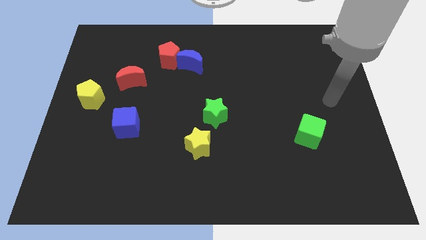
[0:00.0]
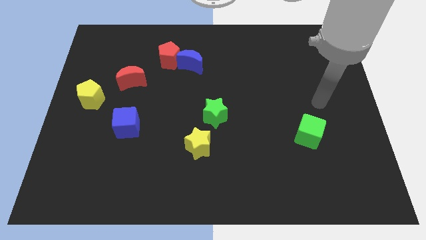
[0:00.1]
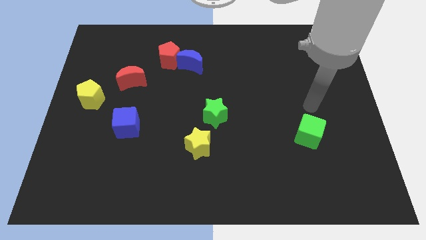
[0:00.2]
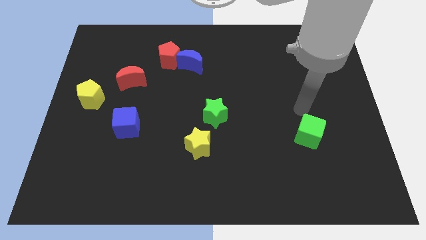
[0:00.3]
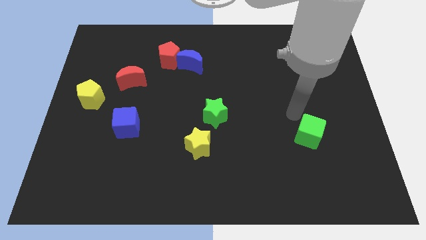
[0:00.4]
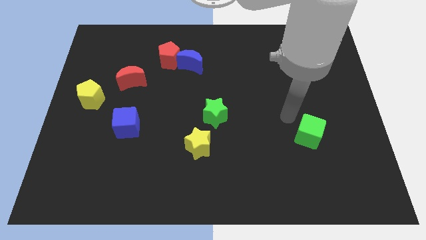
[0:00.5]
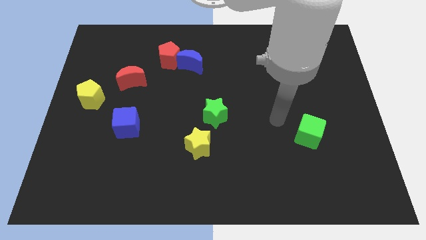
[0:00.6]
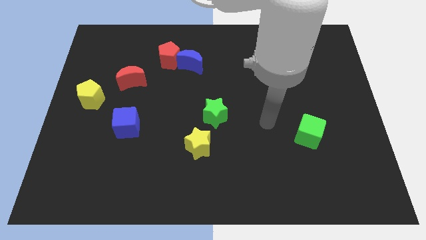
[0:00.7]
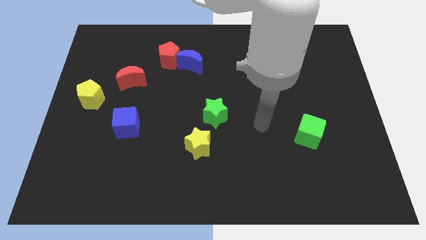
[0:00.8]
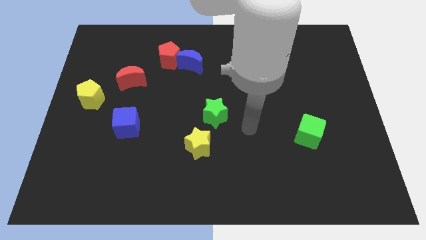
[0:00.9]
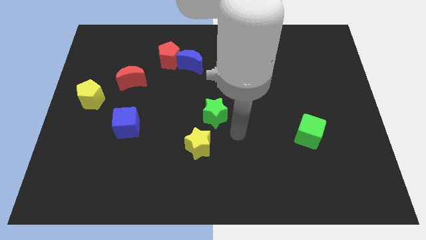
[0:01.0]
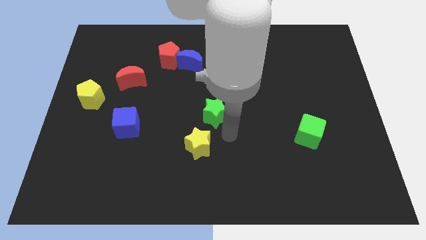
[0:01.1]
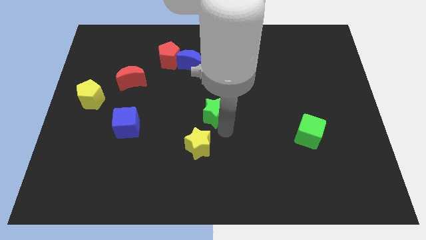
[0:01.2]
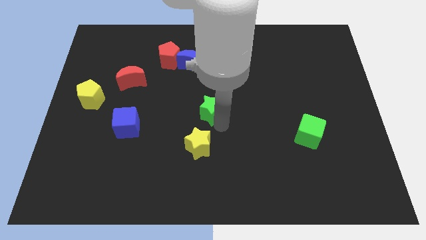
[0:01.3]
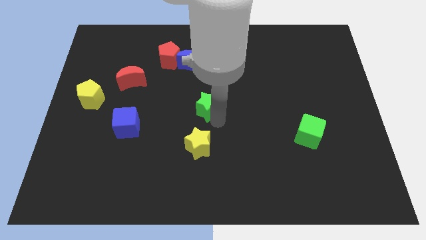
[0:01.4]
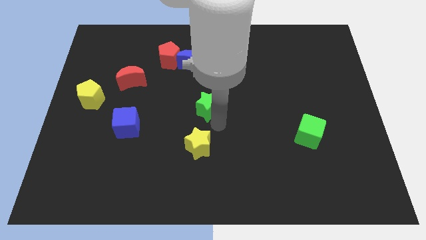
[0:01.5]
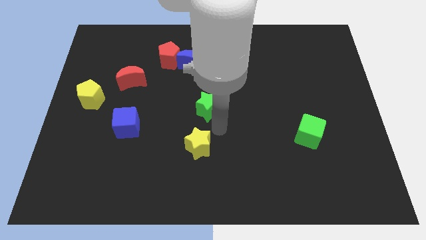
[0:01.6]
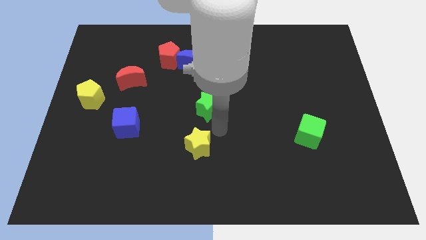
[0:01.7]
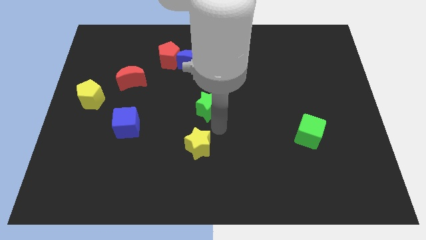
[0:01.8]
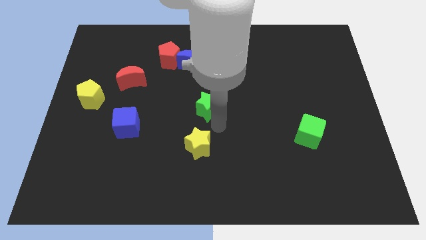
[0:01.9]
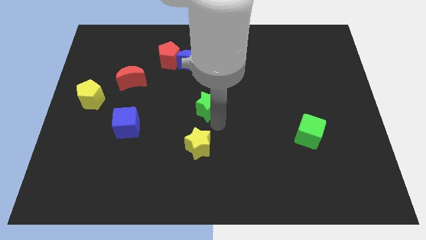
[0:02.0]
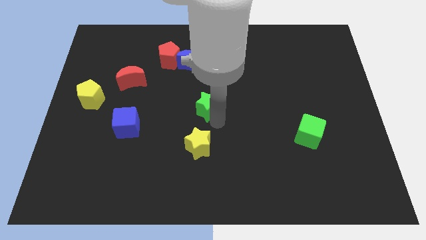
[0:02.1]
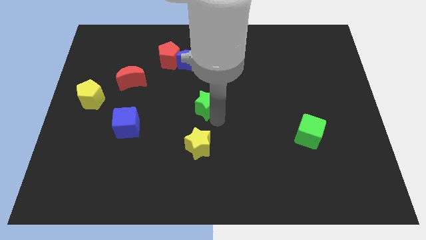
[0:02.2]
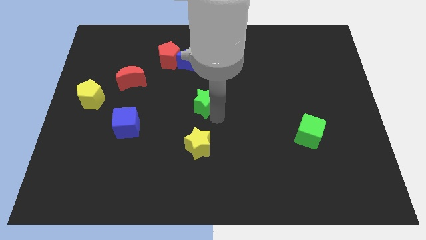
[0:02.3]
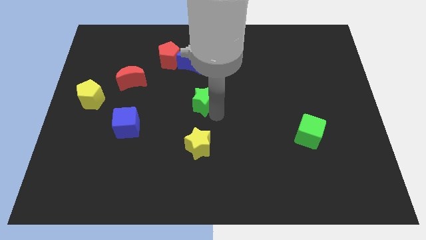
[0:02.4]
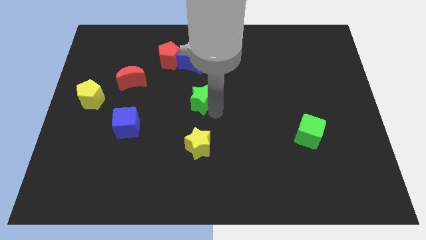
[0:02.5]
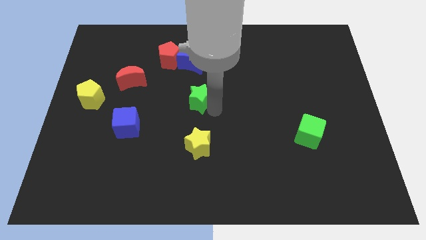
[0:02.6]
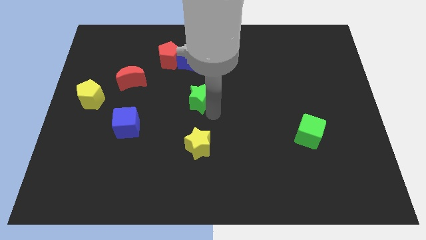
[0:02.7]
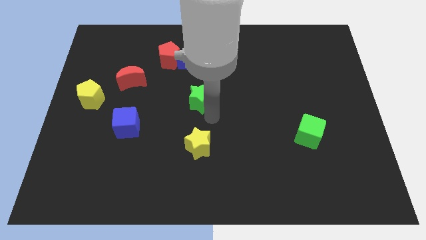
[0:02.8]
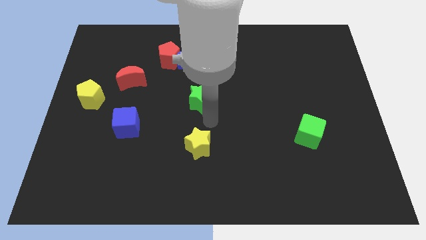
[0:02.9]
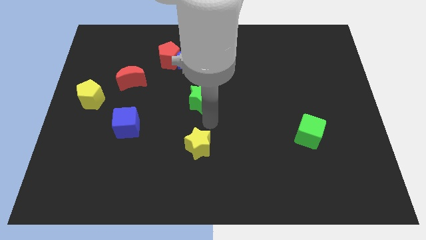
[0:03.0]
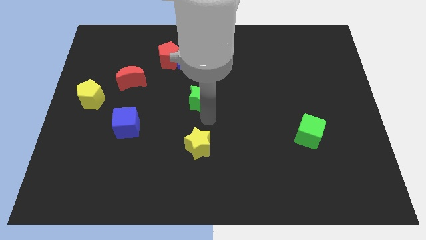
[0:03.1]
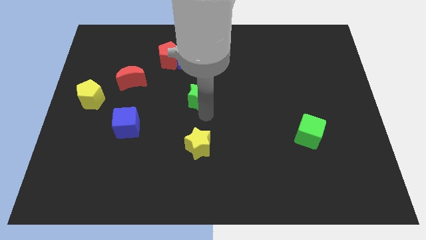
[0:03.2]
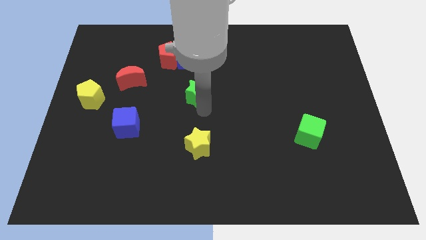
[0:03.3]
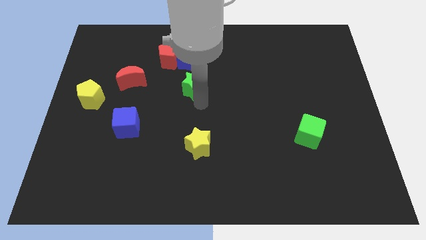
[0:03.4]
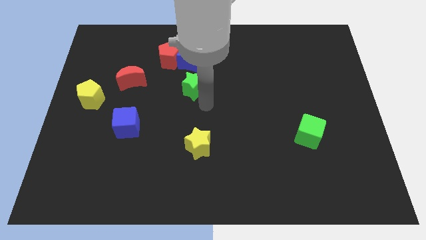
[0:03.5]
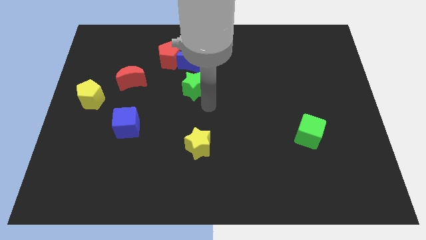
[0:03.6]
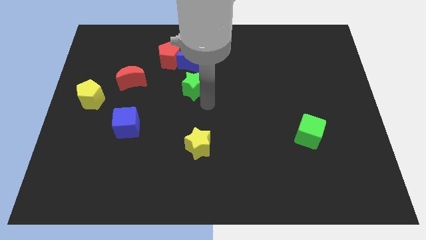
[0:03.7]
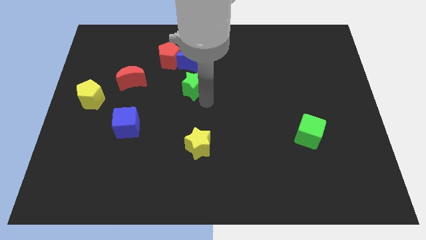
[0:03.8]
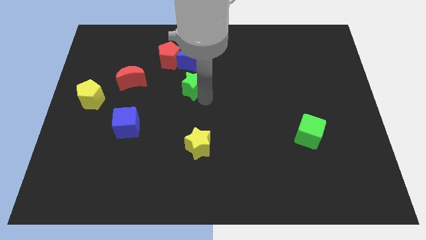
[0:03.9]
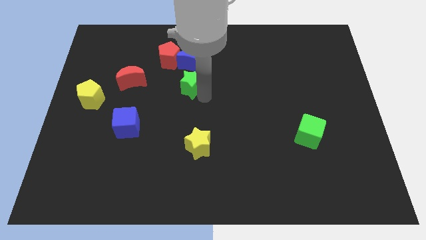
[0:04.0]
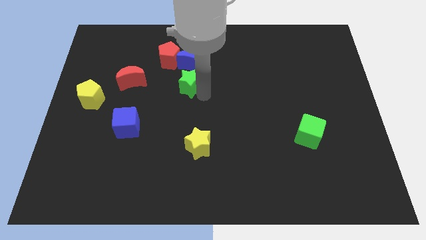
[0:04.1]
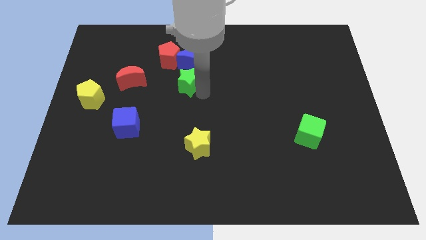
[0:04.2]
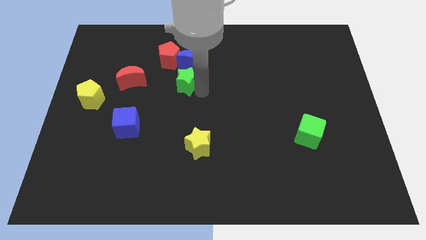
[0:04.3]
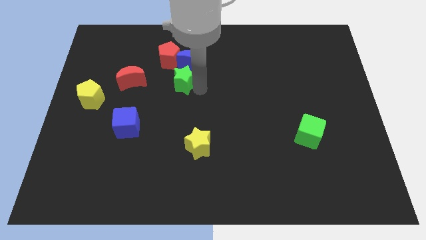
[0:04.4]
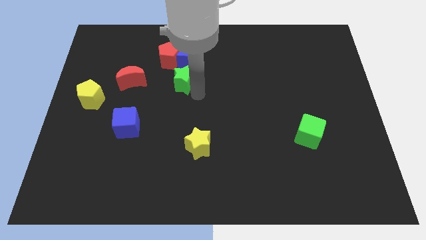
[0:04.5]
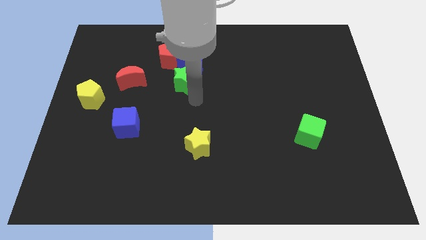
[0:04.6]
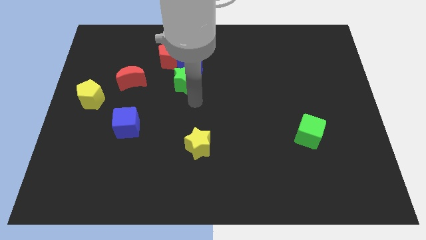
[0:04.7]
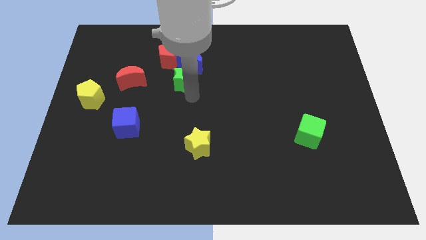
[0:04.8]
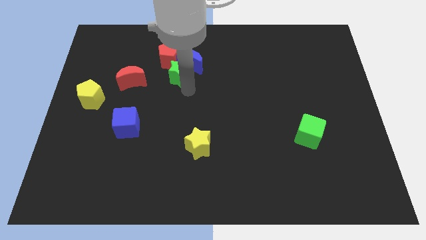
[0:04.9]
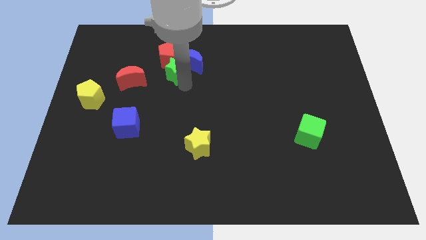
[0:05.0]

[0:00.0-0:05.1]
move the green star towards the red pentagon

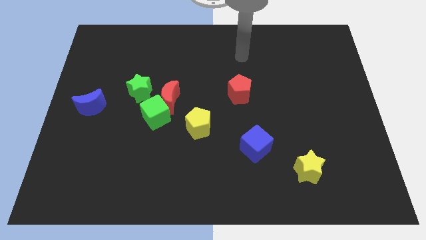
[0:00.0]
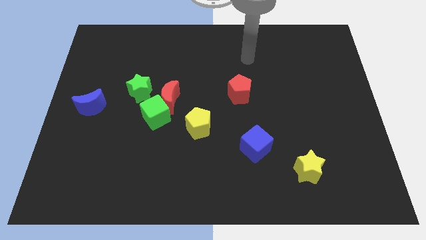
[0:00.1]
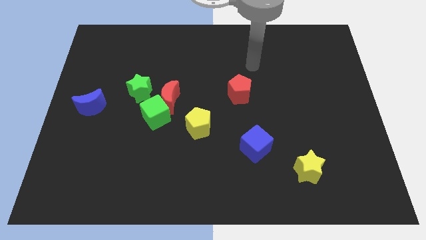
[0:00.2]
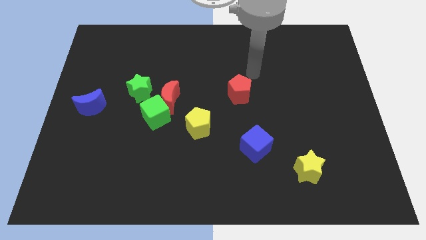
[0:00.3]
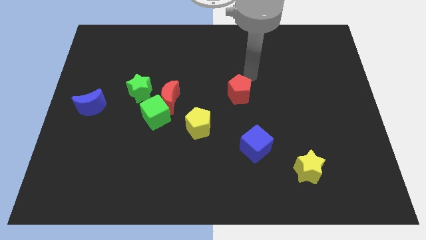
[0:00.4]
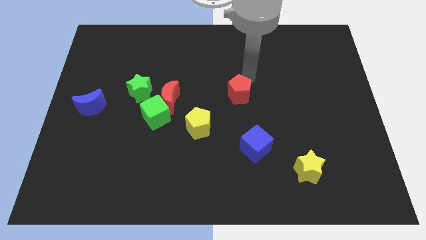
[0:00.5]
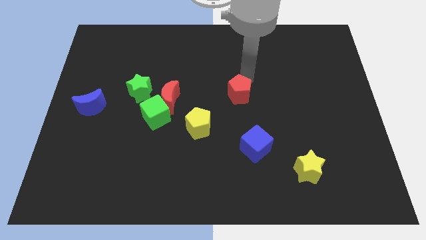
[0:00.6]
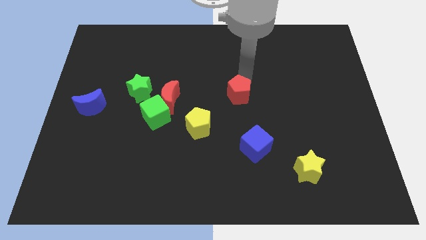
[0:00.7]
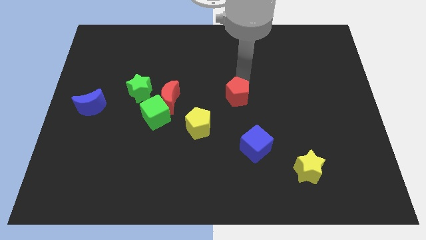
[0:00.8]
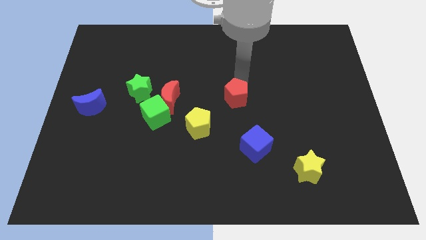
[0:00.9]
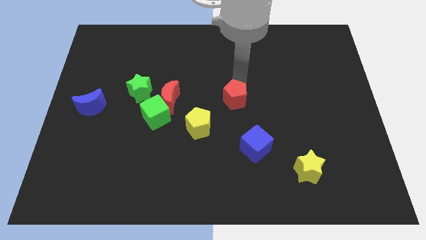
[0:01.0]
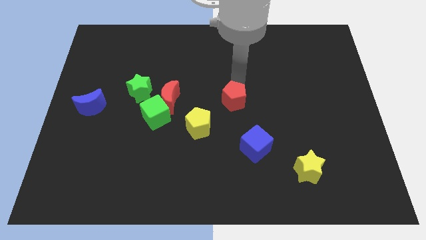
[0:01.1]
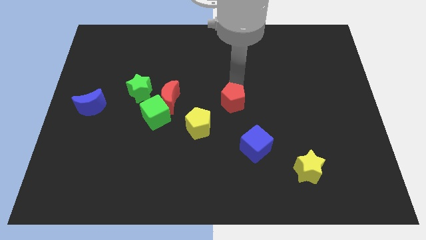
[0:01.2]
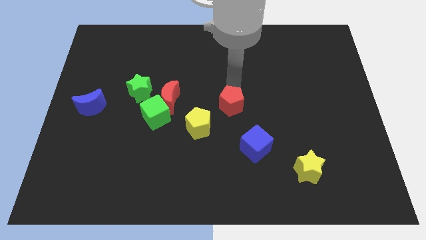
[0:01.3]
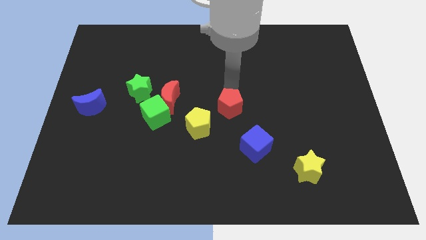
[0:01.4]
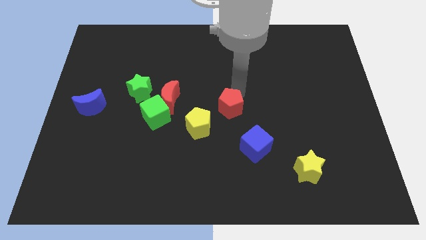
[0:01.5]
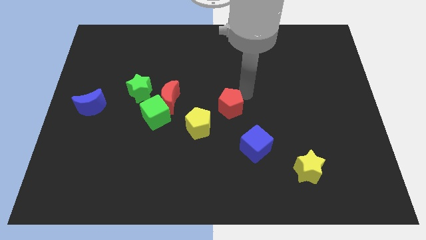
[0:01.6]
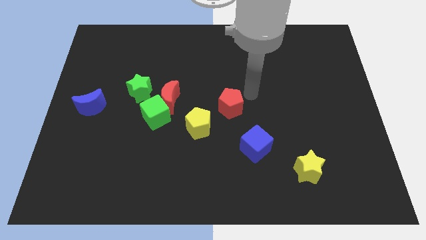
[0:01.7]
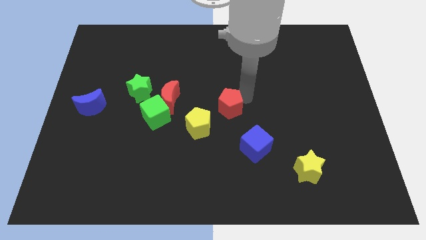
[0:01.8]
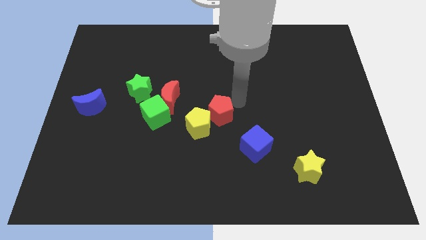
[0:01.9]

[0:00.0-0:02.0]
push the red pentagon next to the yellow pentagon
